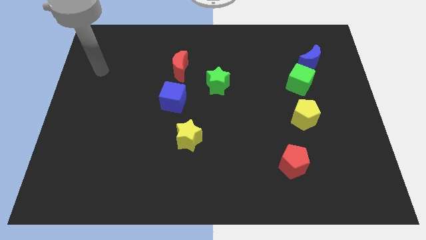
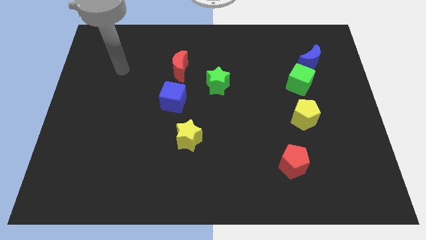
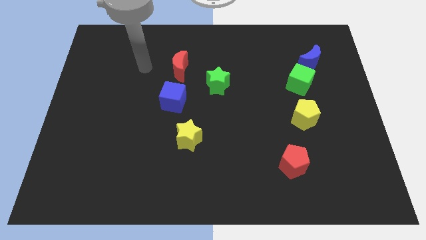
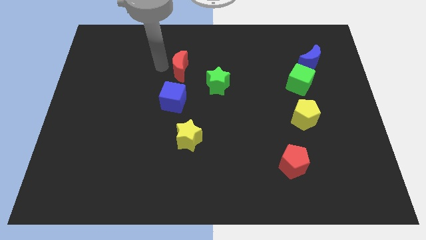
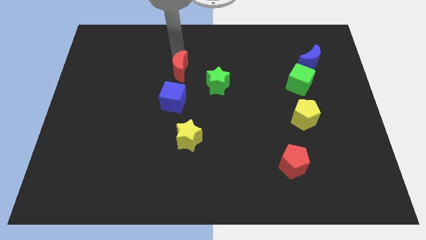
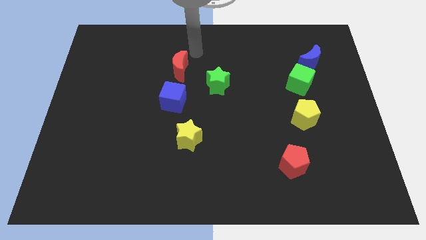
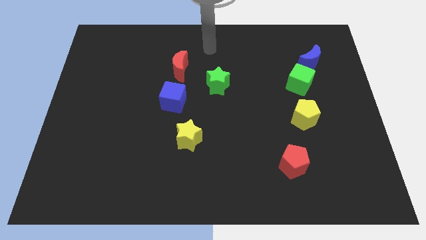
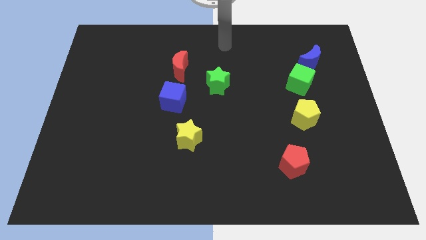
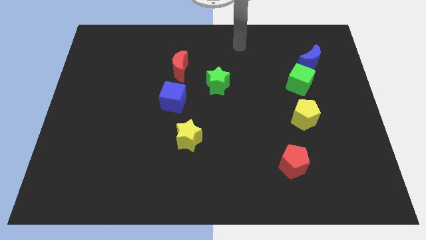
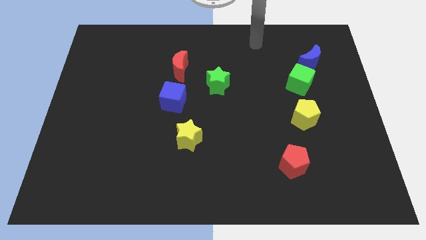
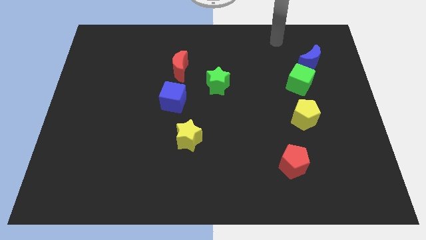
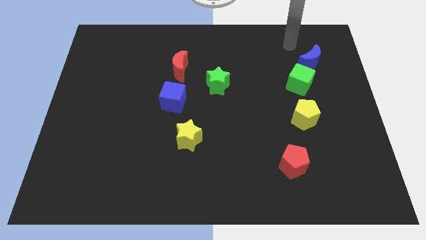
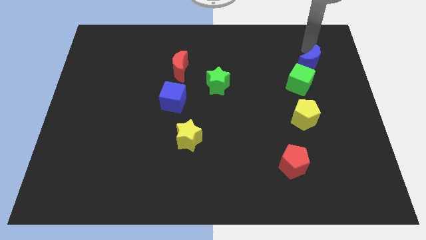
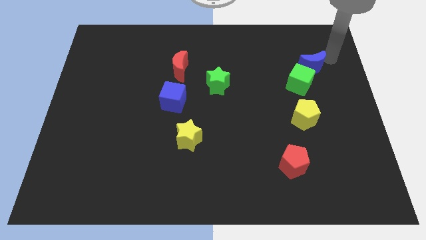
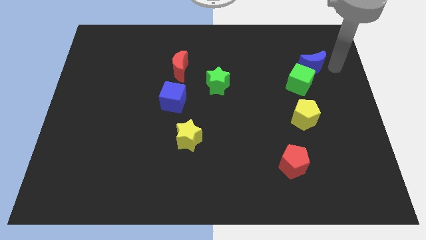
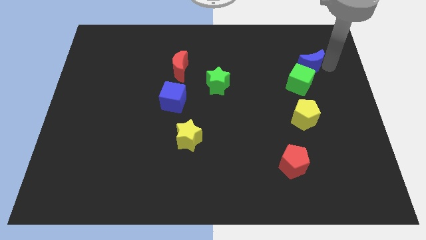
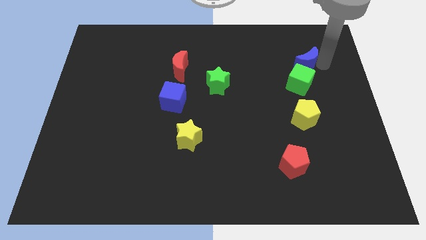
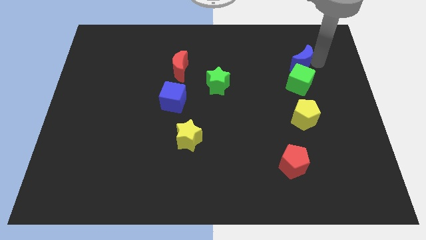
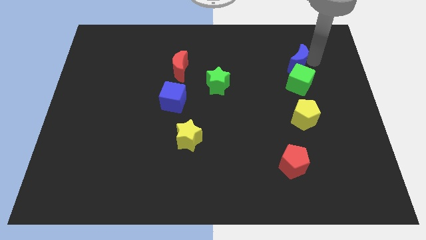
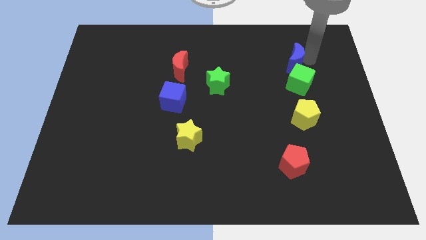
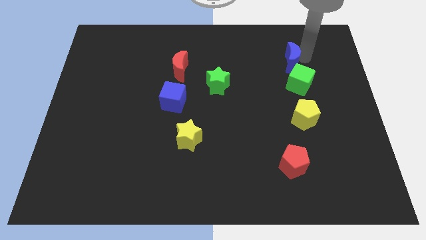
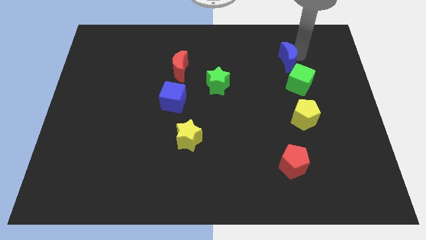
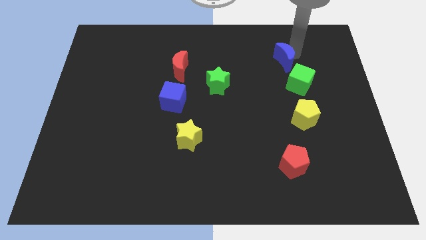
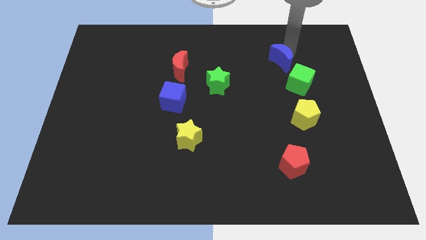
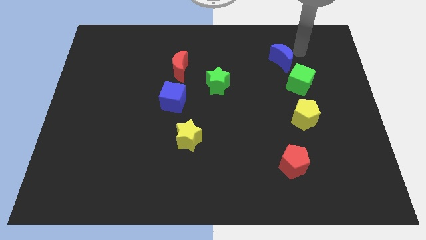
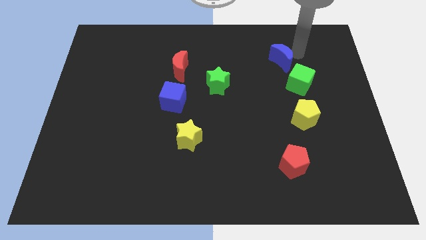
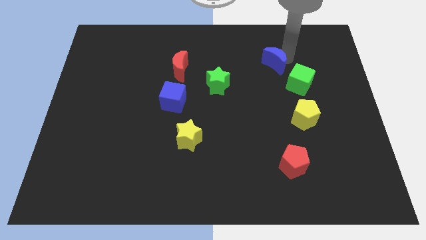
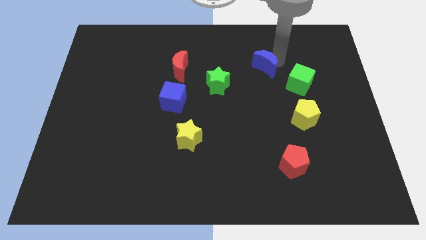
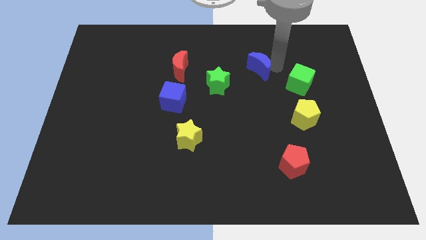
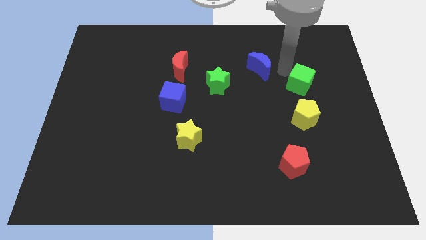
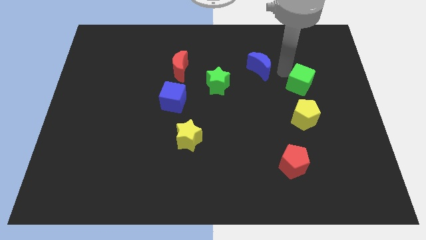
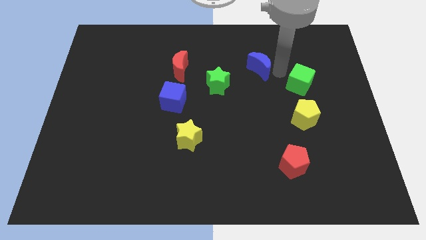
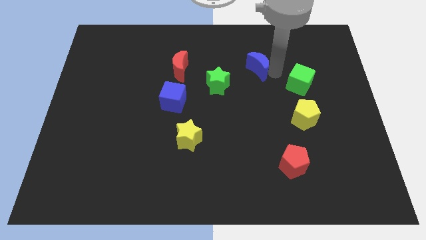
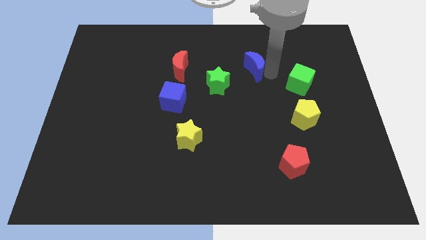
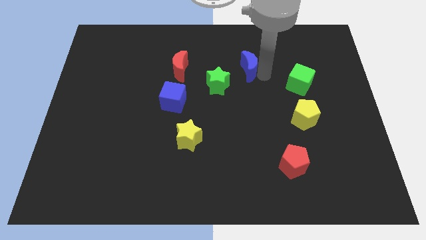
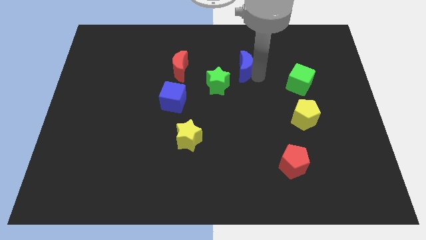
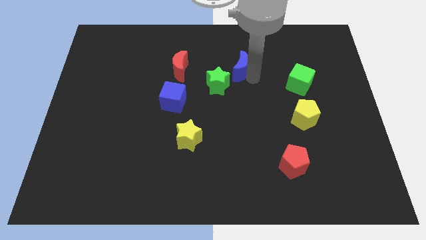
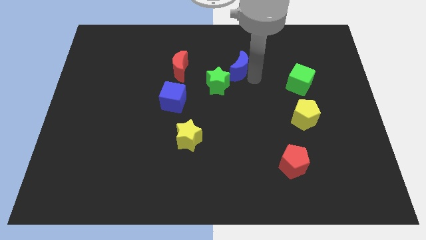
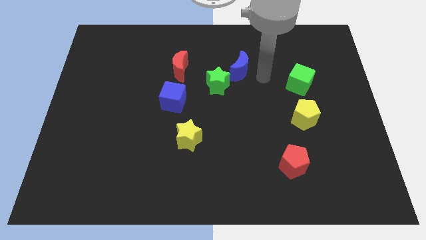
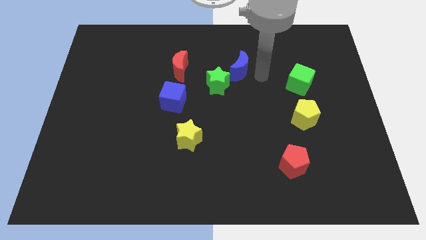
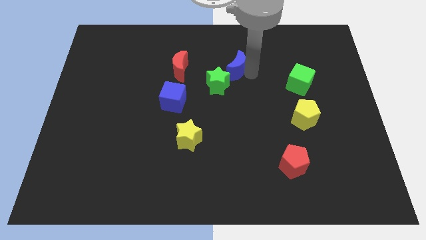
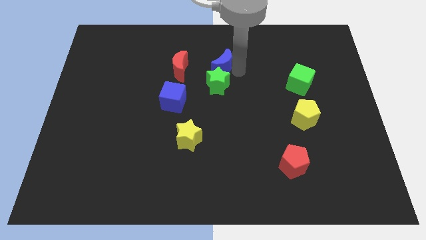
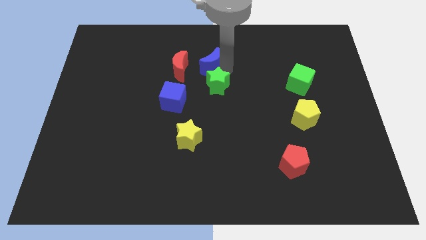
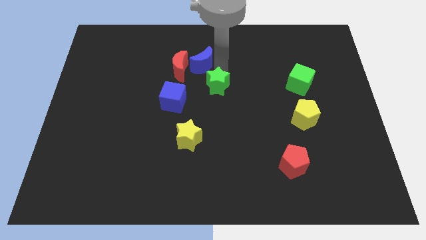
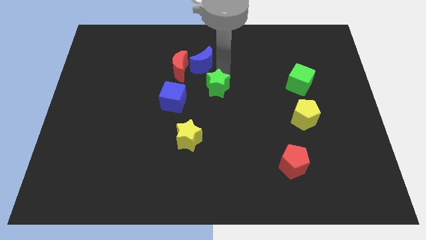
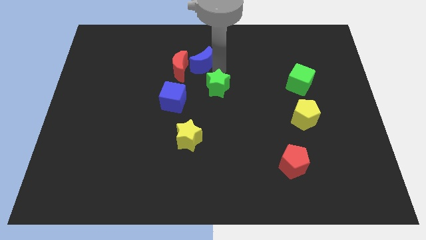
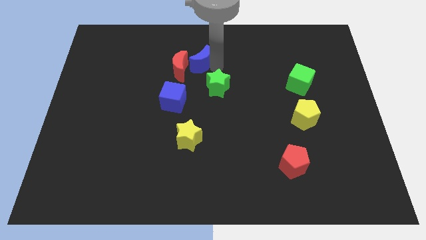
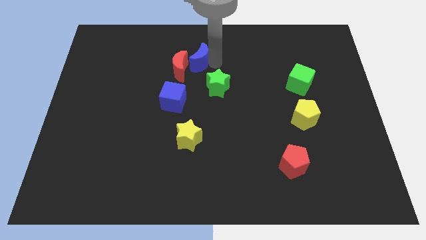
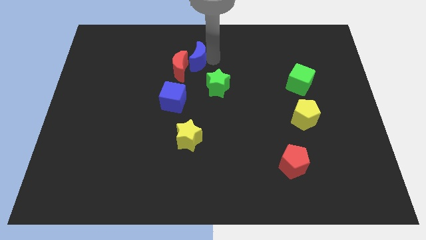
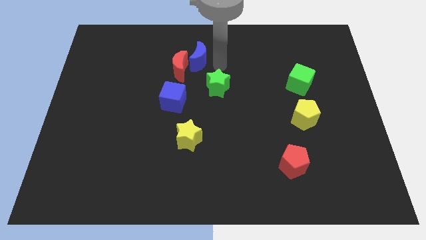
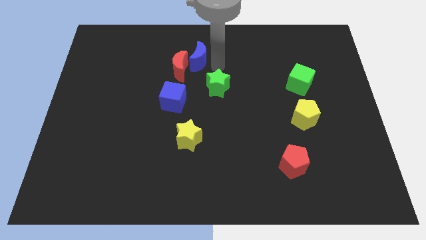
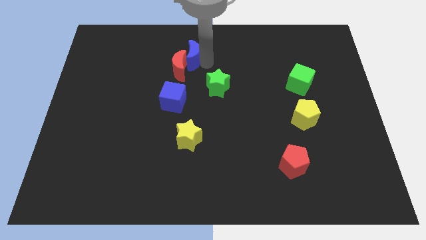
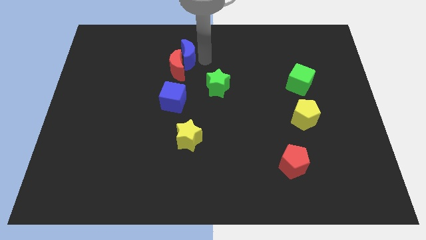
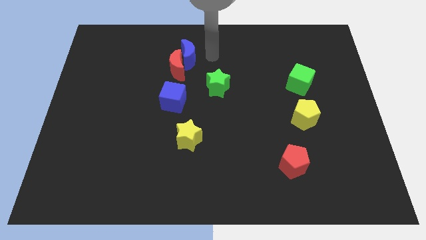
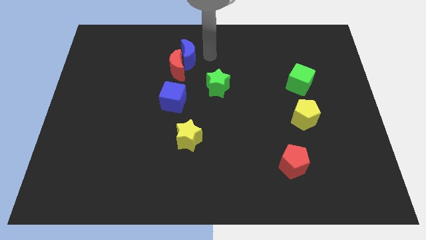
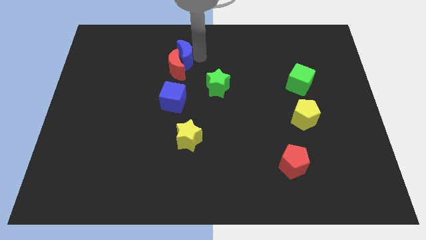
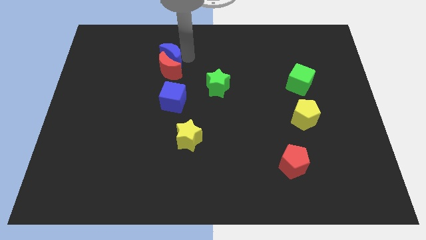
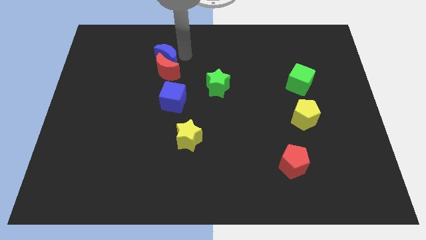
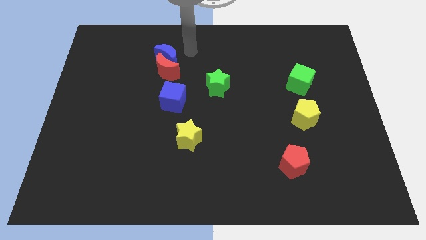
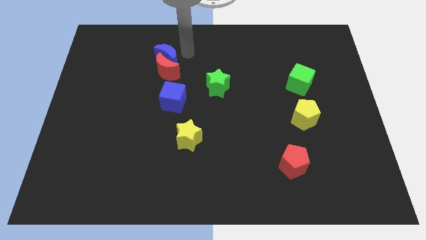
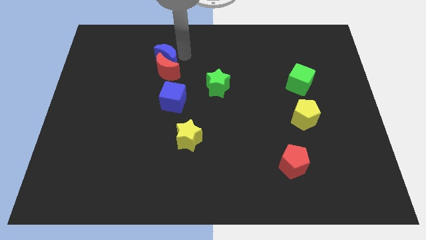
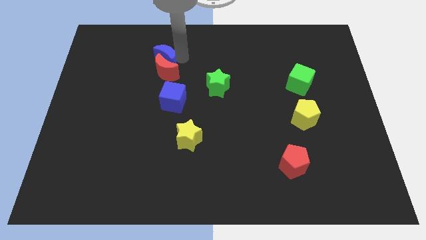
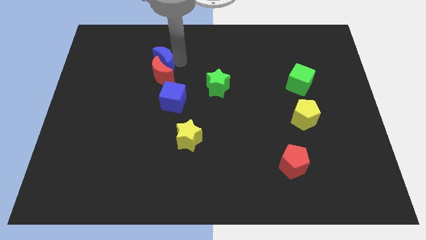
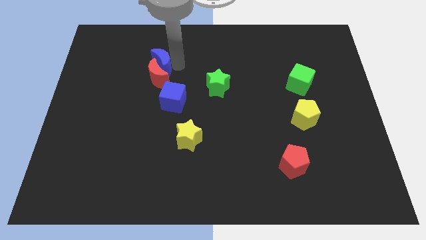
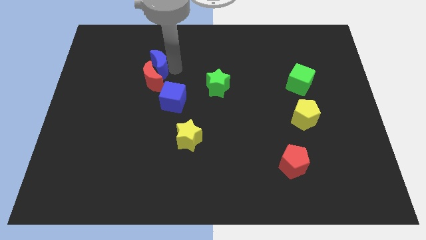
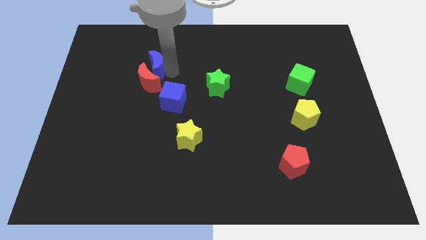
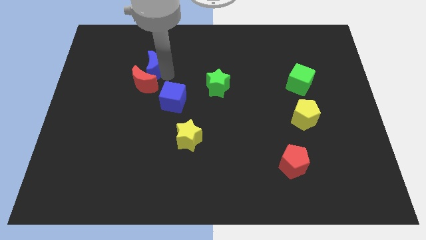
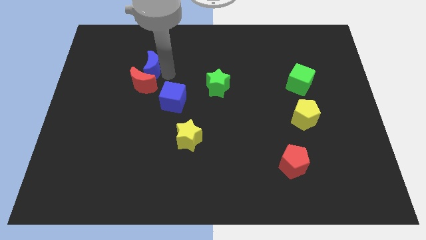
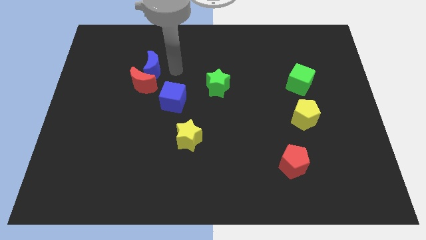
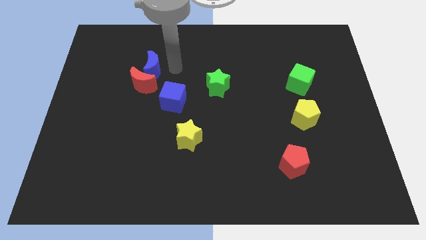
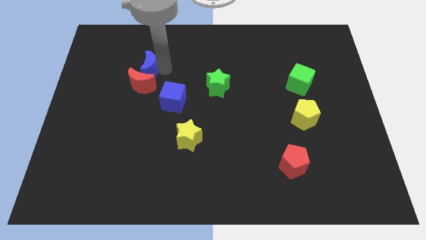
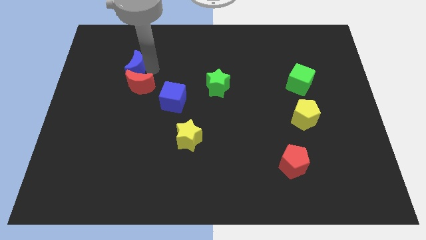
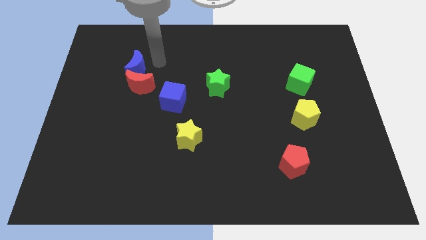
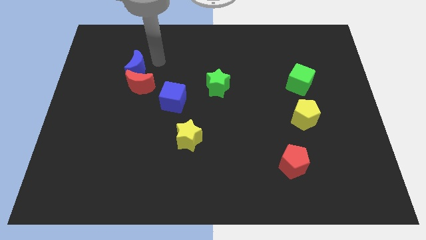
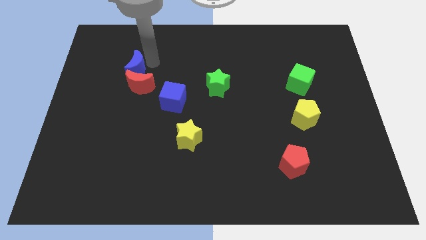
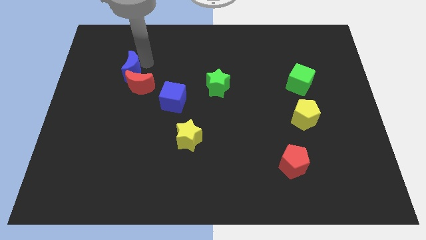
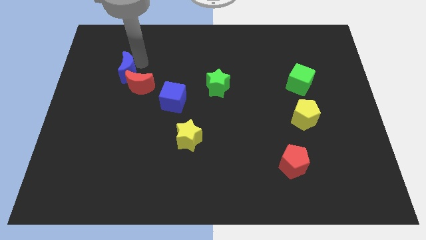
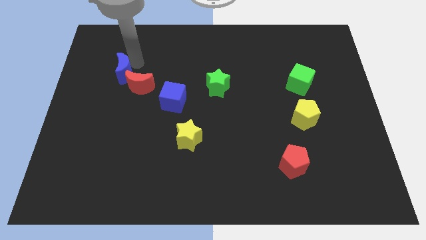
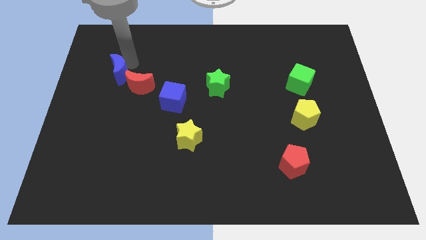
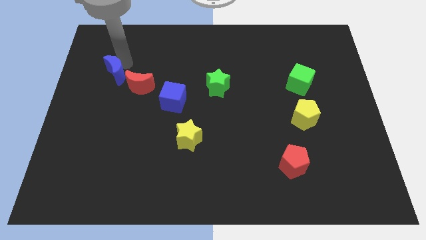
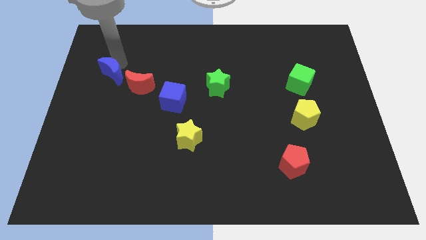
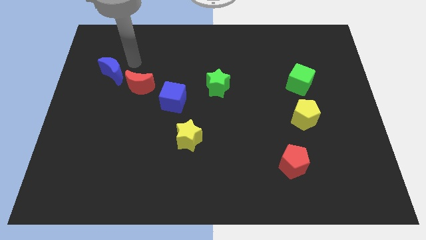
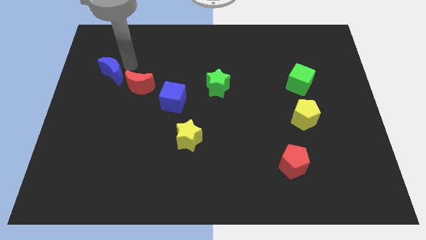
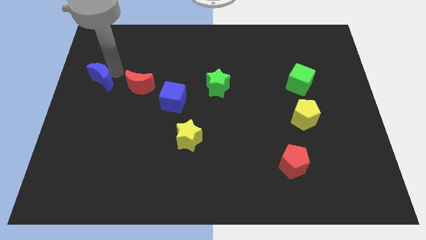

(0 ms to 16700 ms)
put the blue moon to the left side
